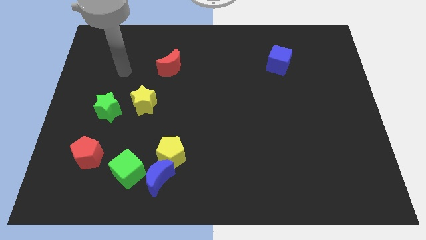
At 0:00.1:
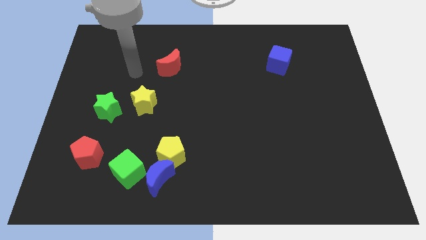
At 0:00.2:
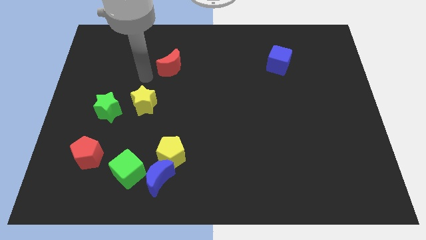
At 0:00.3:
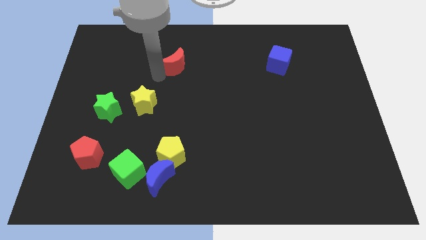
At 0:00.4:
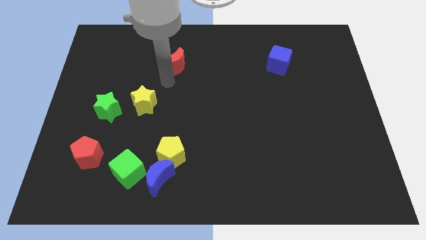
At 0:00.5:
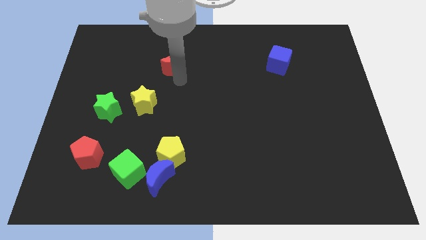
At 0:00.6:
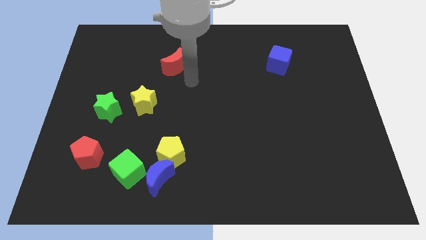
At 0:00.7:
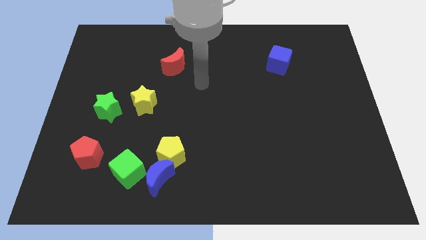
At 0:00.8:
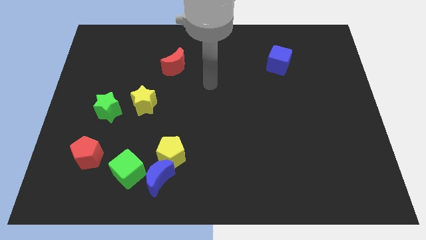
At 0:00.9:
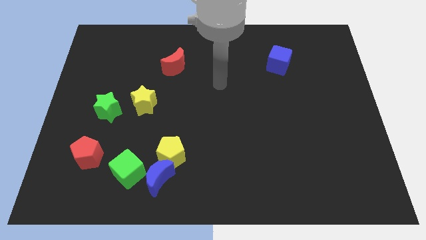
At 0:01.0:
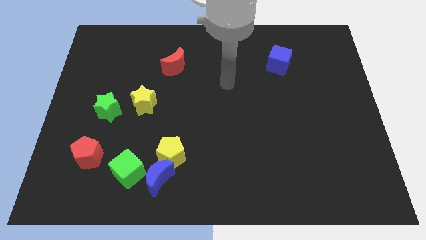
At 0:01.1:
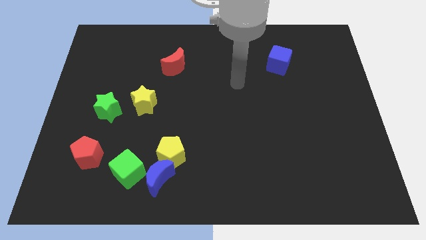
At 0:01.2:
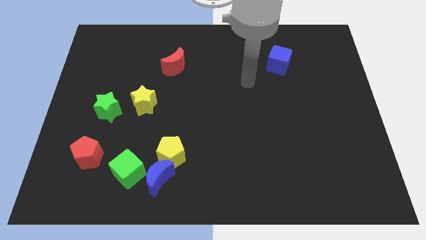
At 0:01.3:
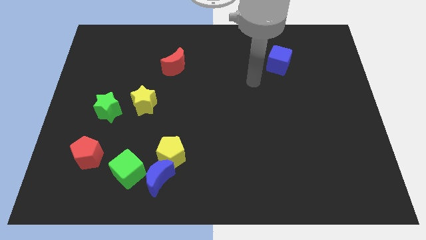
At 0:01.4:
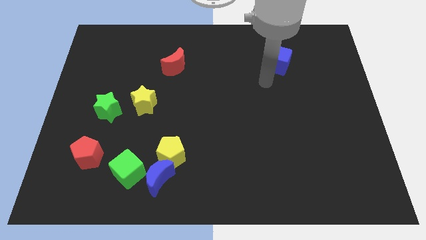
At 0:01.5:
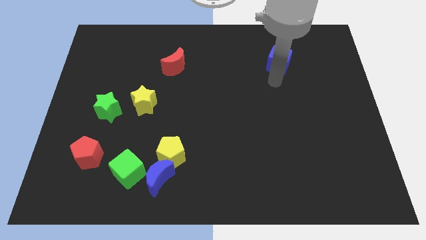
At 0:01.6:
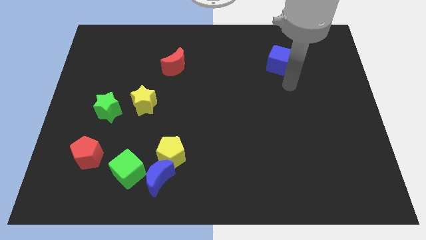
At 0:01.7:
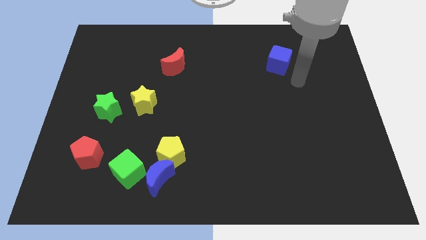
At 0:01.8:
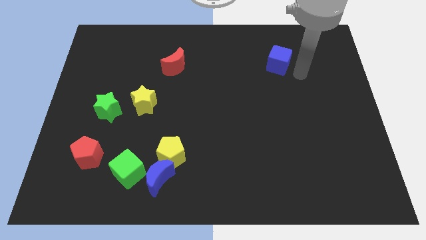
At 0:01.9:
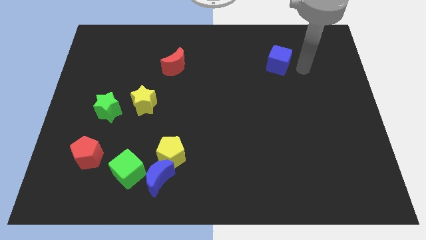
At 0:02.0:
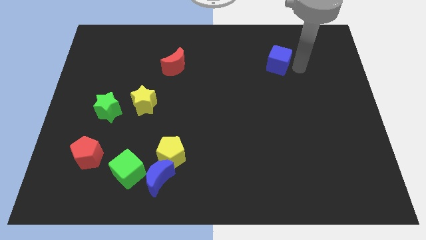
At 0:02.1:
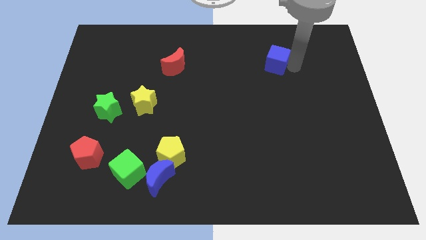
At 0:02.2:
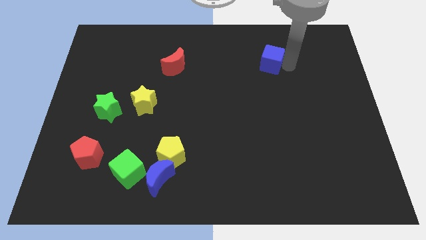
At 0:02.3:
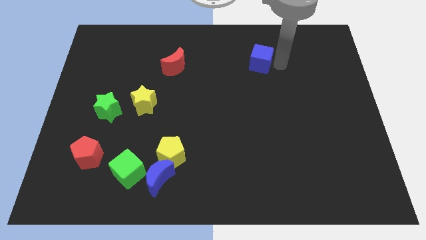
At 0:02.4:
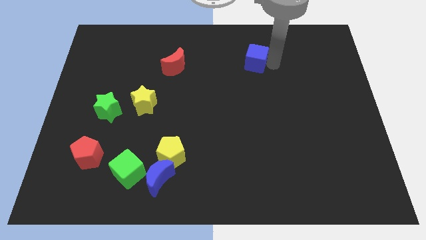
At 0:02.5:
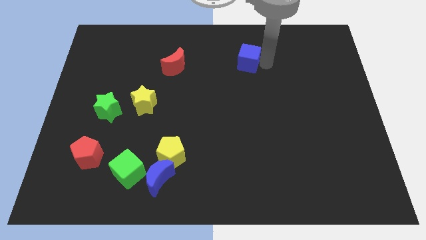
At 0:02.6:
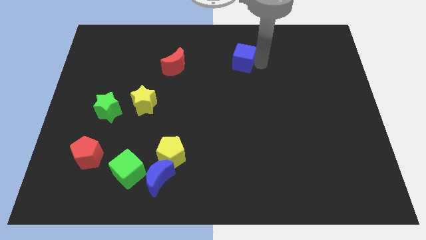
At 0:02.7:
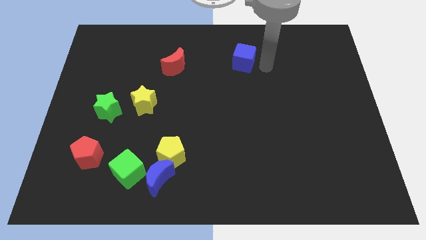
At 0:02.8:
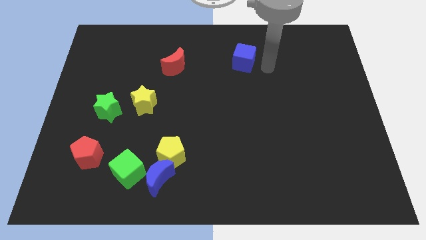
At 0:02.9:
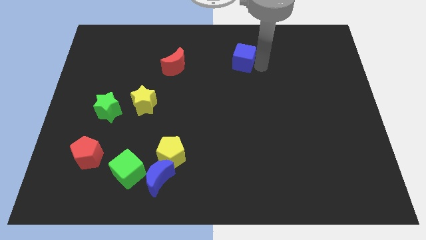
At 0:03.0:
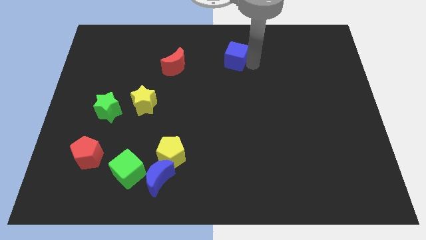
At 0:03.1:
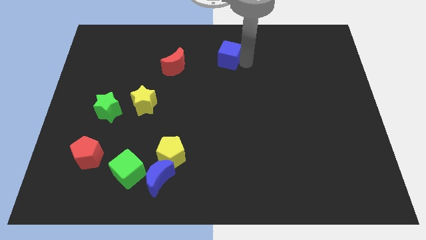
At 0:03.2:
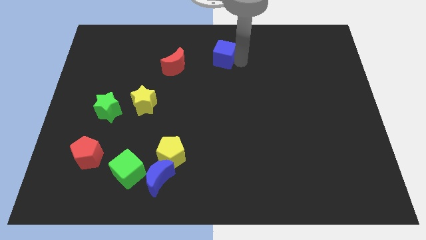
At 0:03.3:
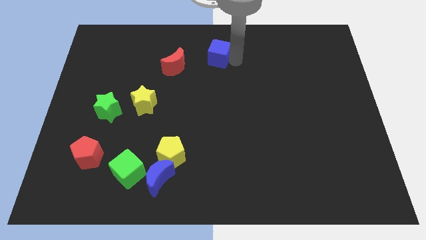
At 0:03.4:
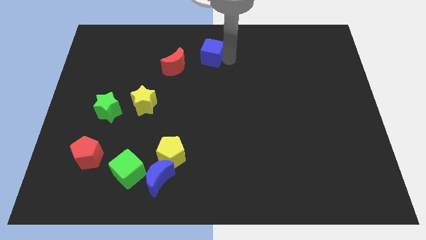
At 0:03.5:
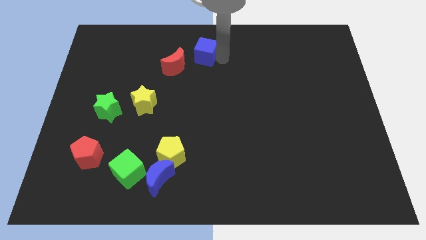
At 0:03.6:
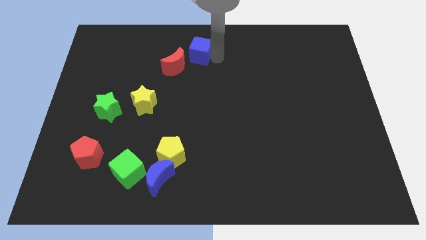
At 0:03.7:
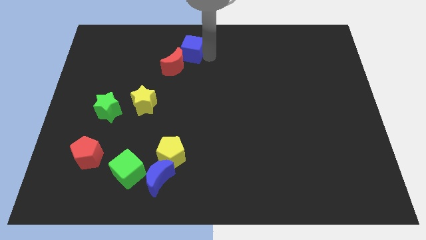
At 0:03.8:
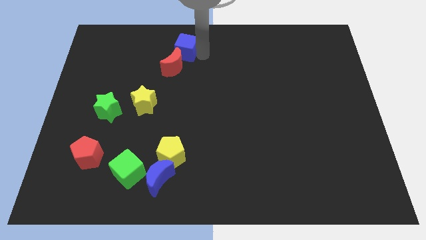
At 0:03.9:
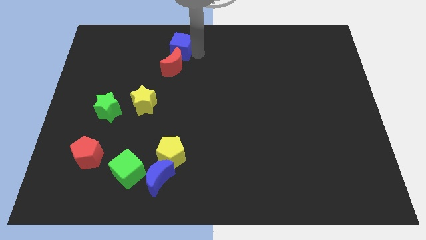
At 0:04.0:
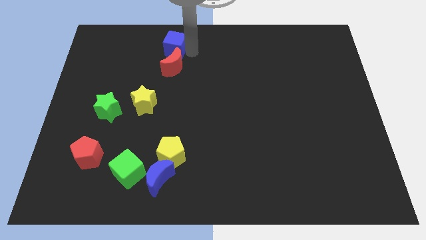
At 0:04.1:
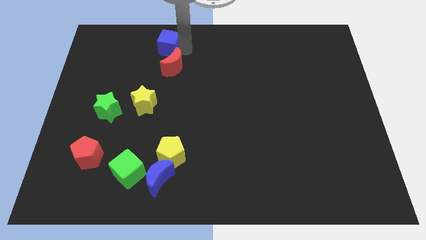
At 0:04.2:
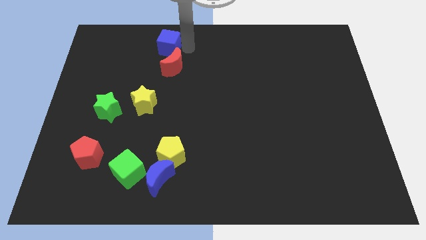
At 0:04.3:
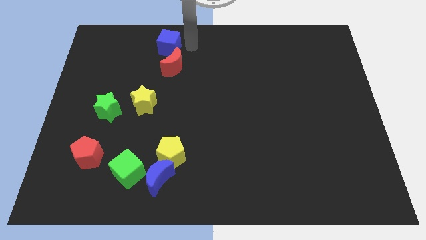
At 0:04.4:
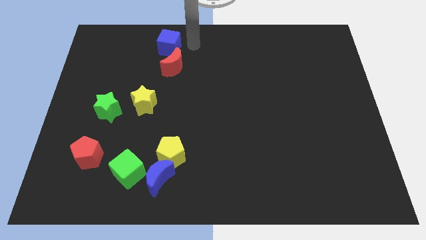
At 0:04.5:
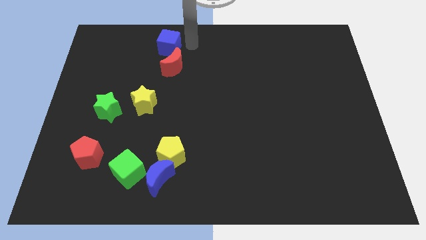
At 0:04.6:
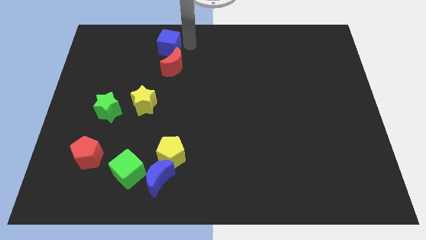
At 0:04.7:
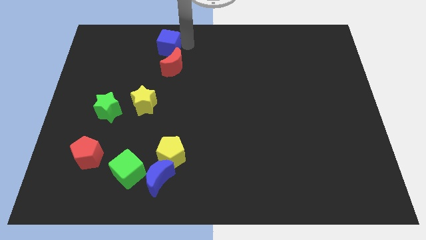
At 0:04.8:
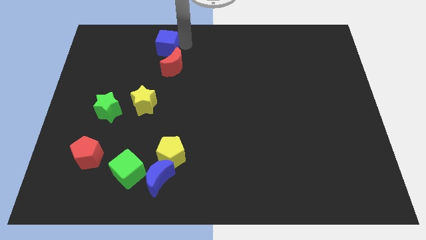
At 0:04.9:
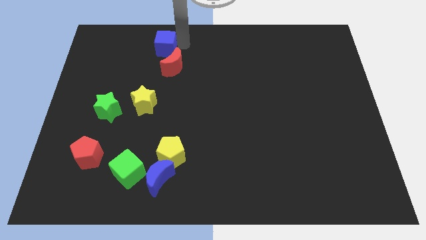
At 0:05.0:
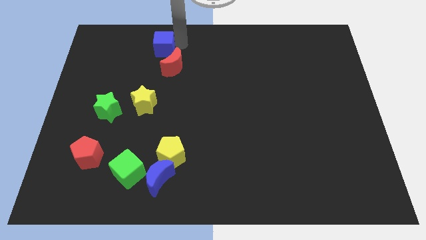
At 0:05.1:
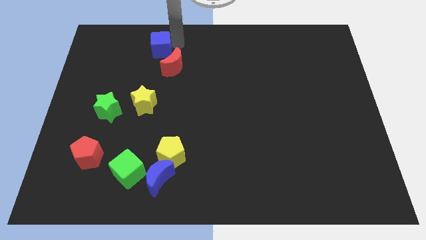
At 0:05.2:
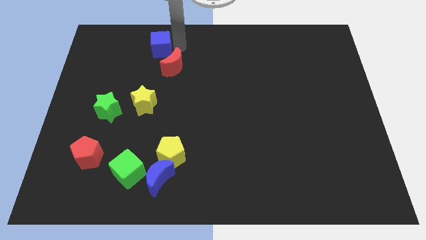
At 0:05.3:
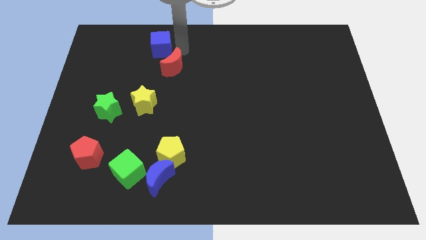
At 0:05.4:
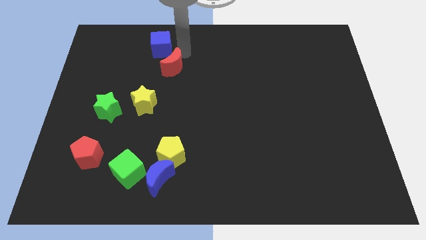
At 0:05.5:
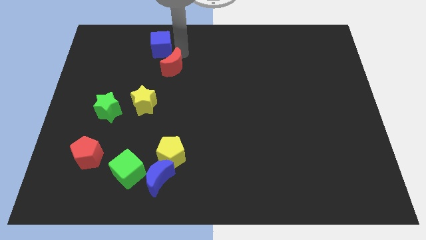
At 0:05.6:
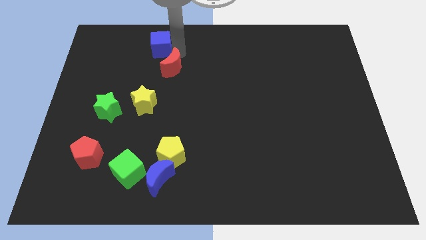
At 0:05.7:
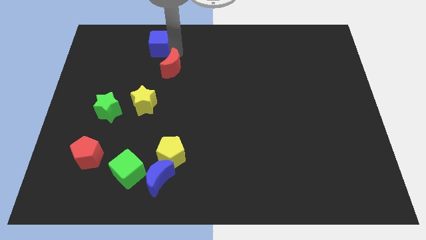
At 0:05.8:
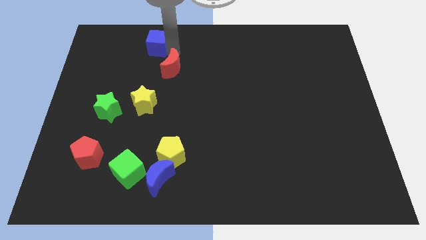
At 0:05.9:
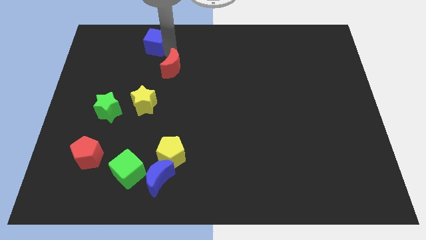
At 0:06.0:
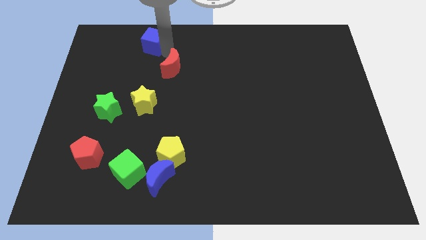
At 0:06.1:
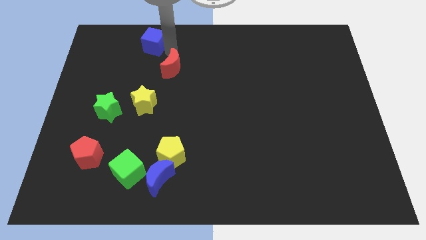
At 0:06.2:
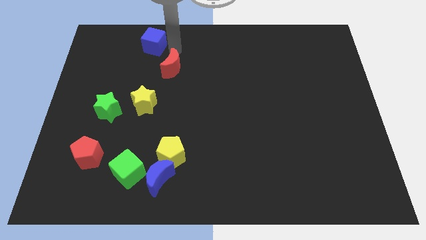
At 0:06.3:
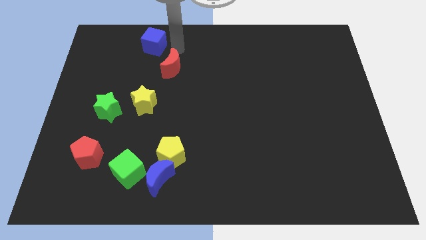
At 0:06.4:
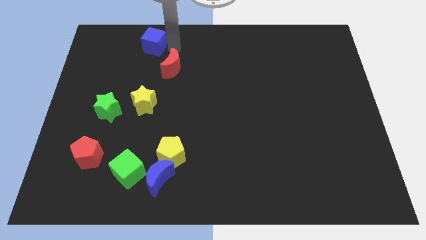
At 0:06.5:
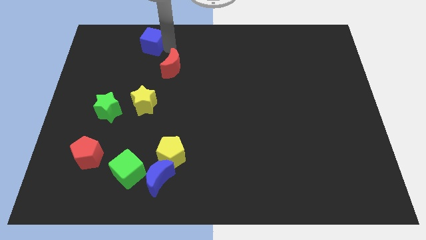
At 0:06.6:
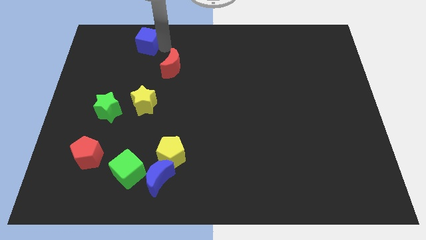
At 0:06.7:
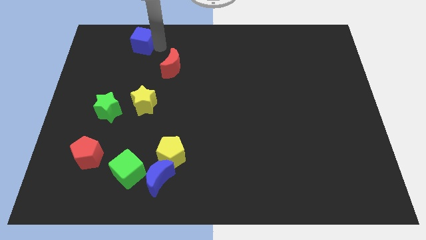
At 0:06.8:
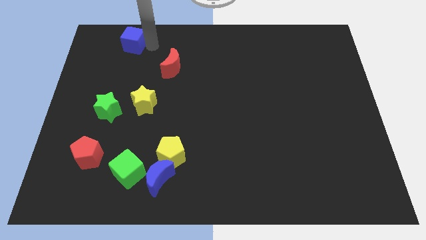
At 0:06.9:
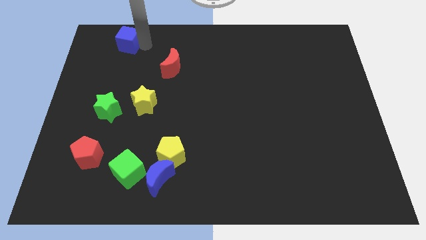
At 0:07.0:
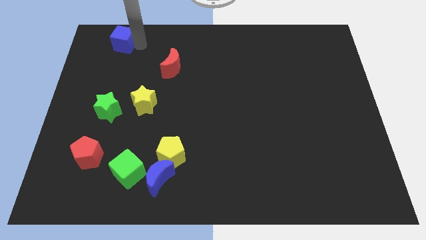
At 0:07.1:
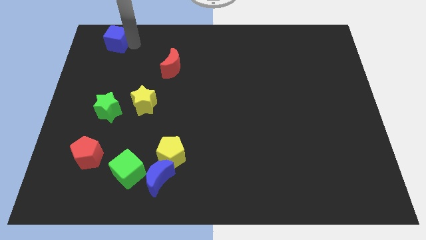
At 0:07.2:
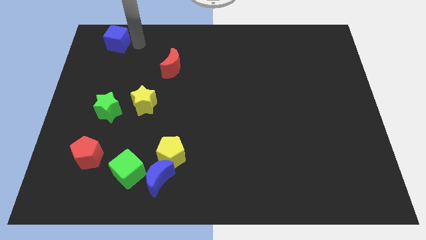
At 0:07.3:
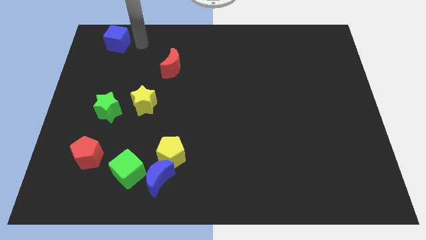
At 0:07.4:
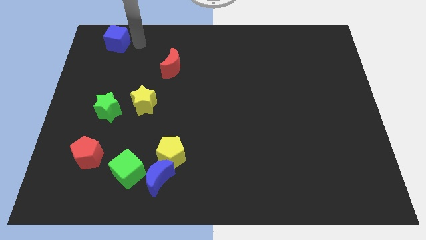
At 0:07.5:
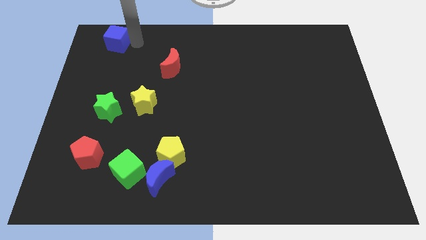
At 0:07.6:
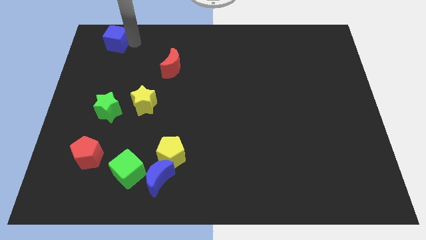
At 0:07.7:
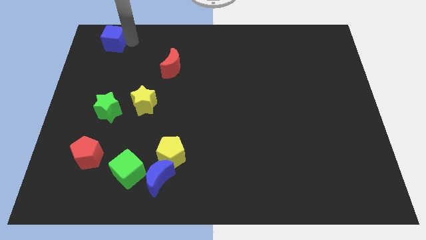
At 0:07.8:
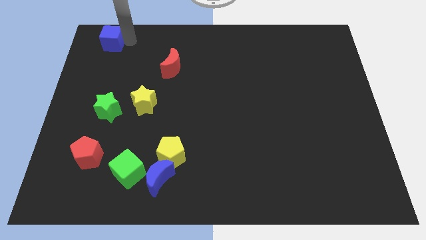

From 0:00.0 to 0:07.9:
move the blue cube to the upper left corner
